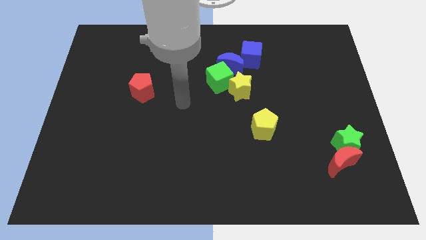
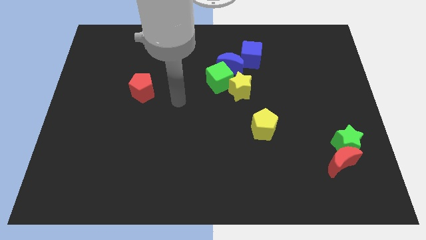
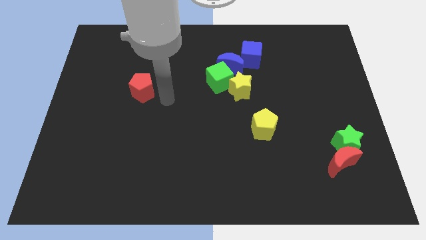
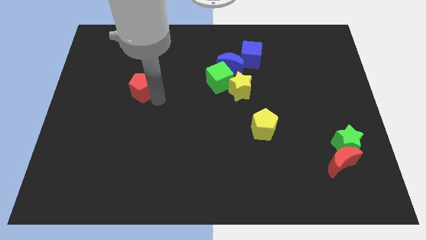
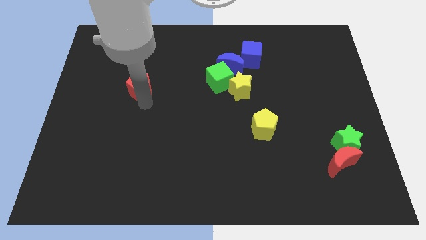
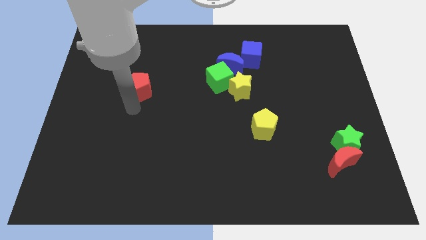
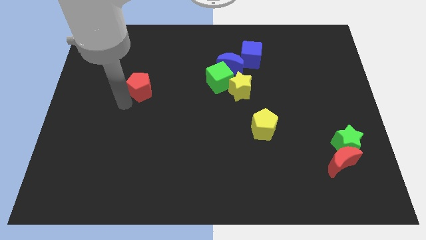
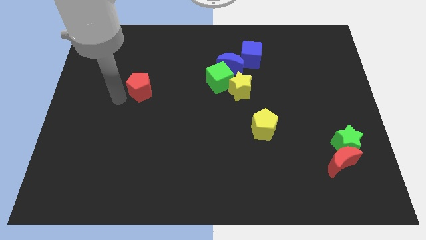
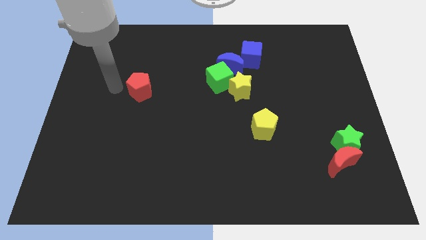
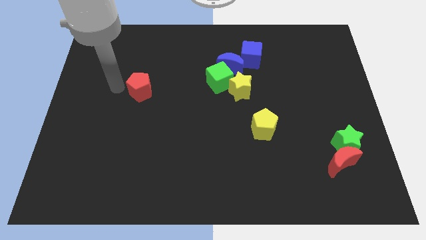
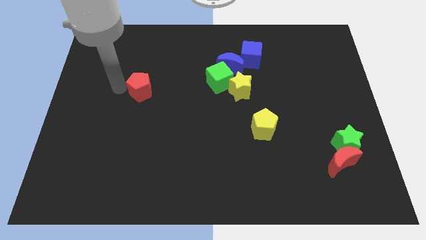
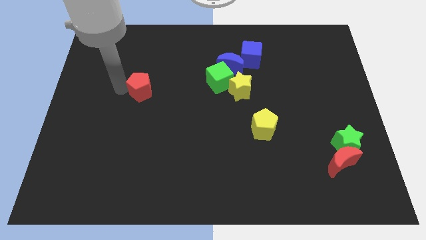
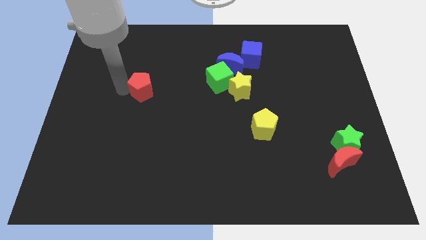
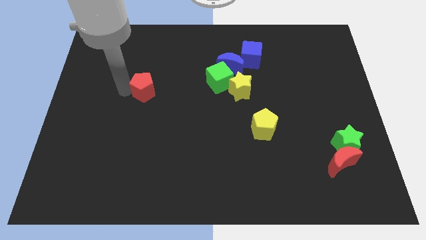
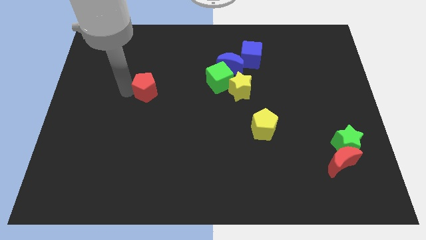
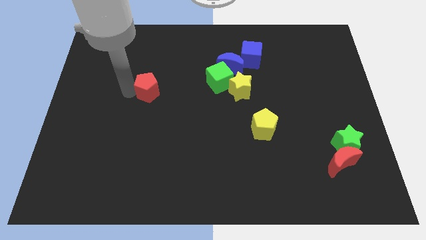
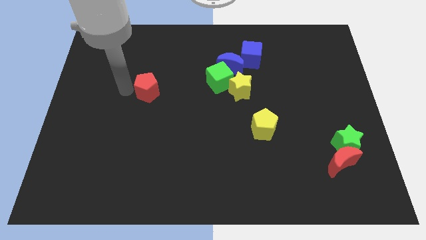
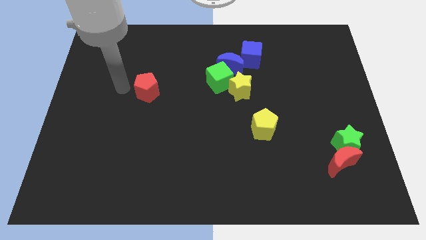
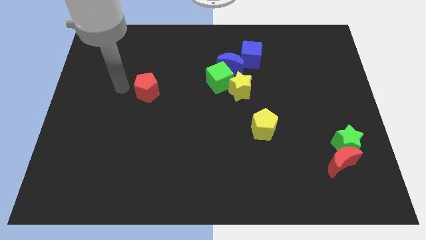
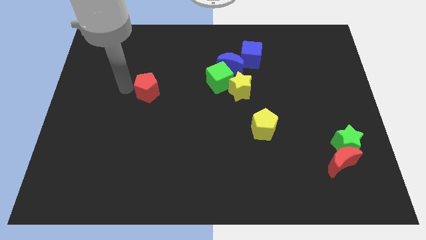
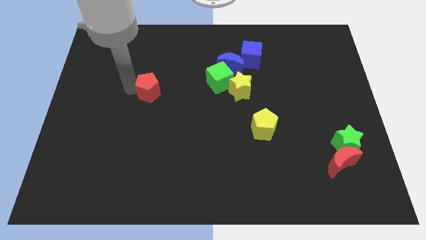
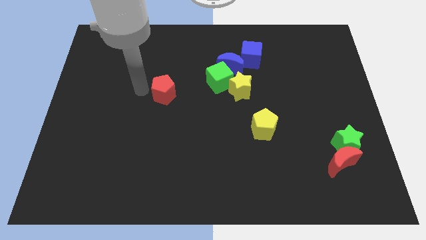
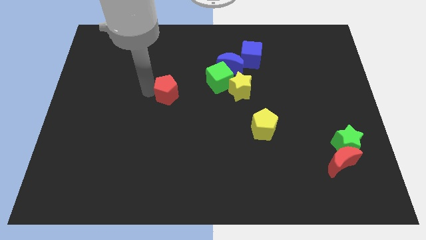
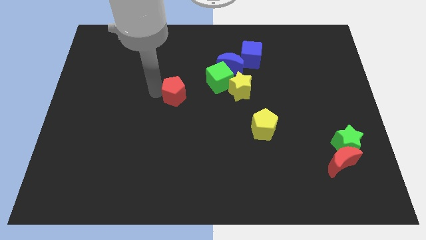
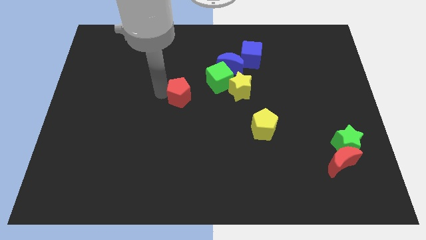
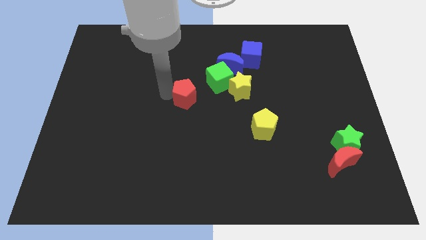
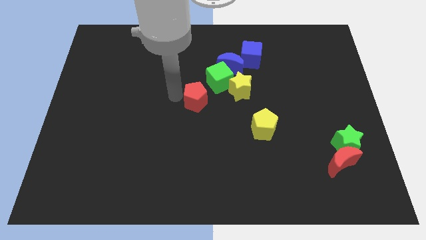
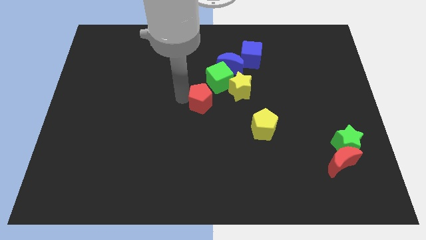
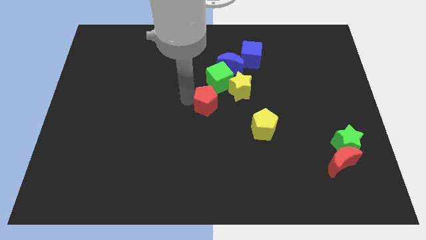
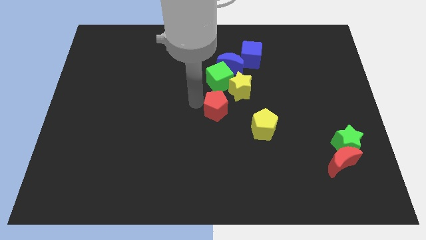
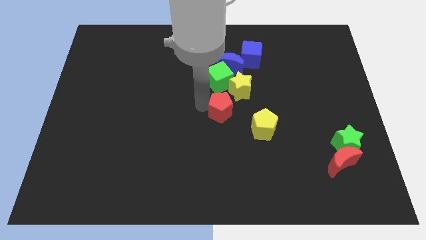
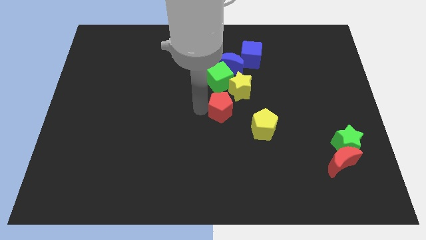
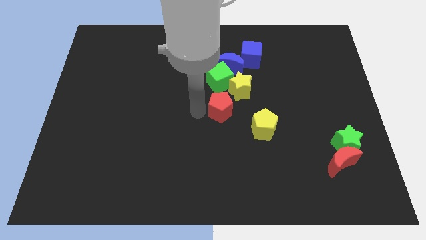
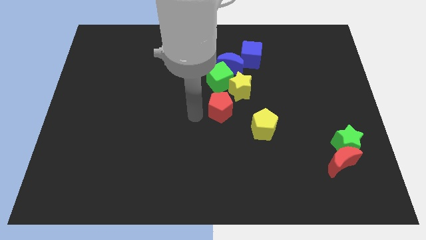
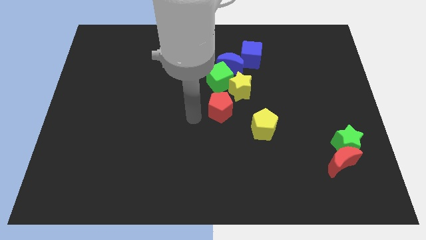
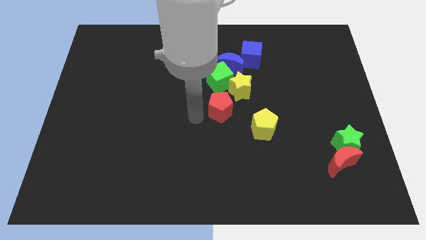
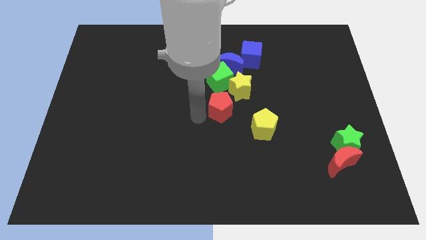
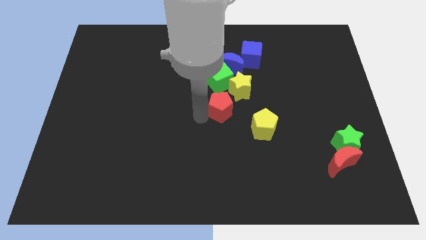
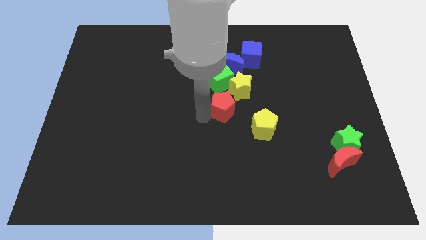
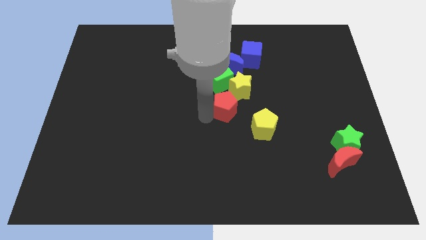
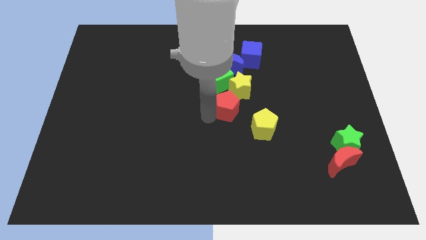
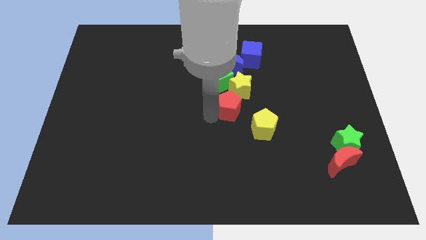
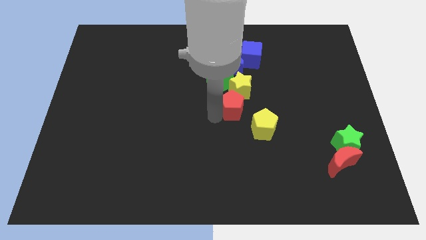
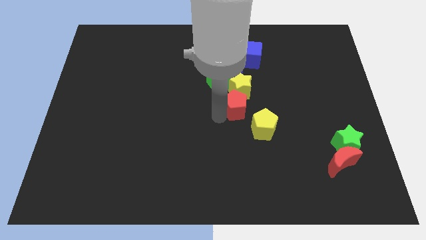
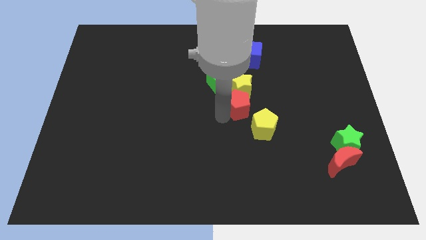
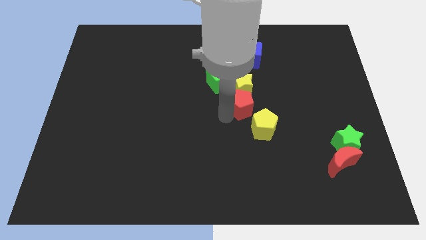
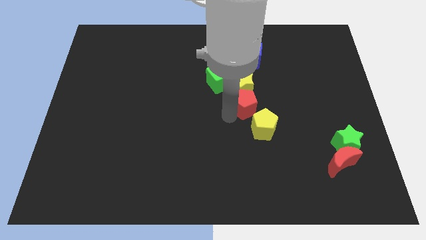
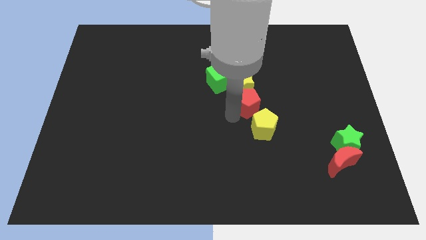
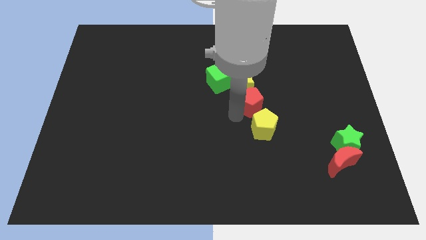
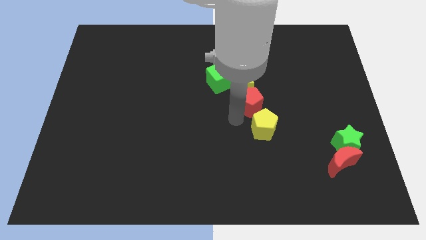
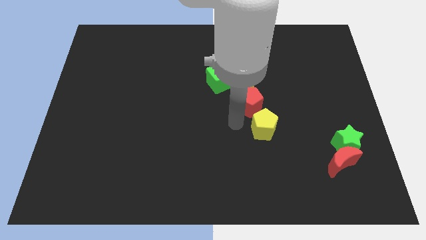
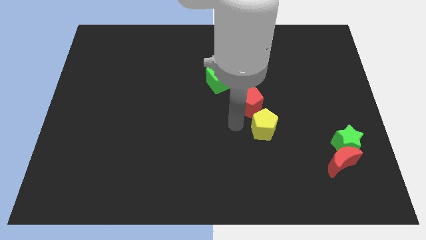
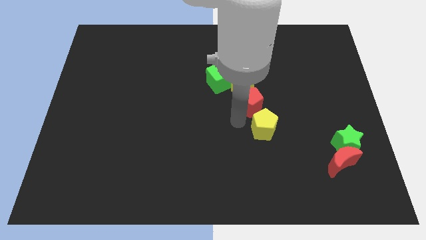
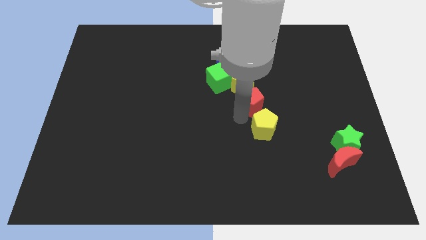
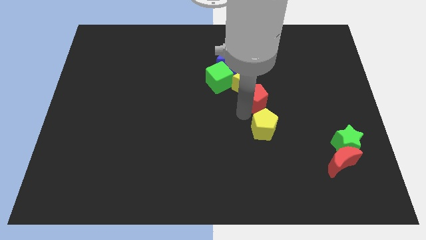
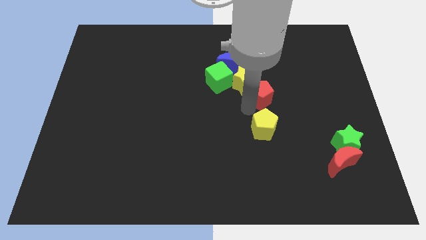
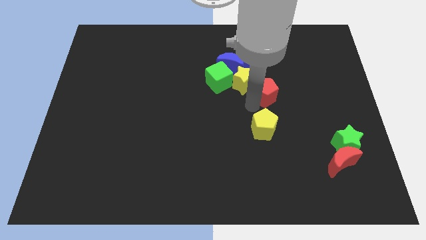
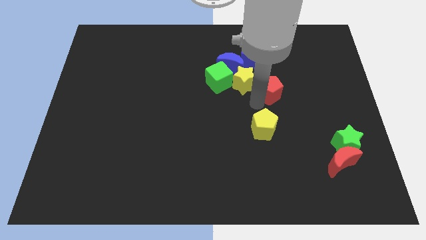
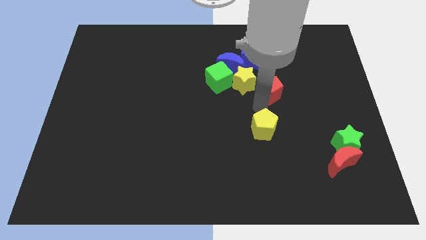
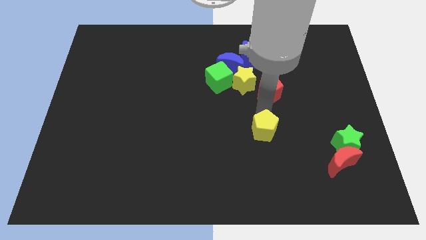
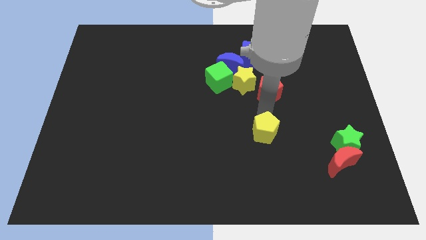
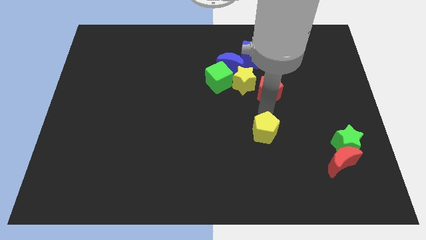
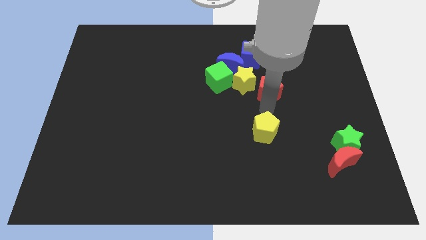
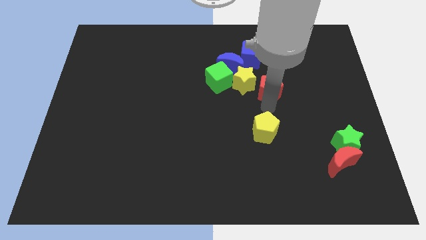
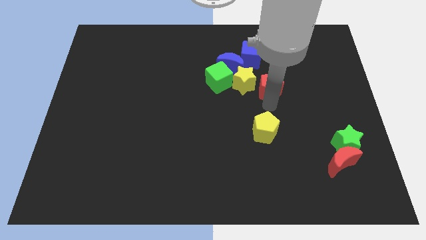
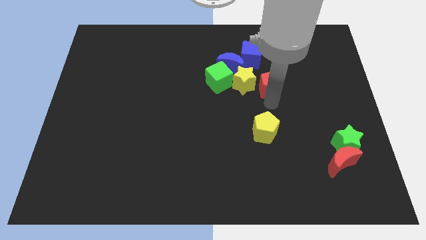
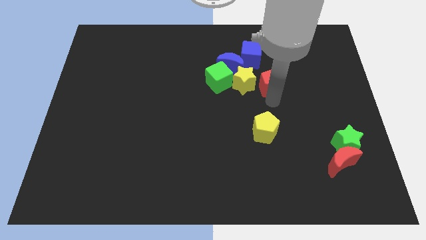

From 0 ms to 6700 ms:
move the red pentagon to the bottom right side of the blue cube
